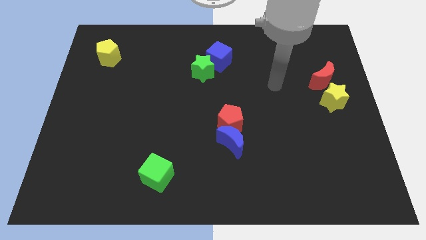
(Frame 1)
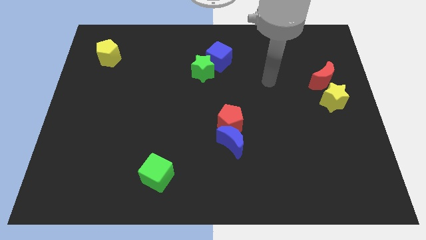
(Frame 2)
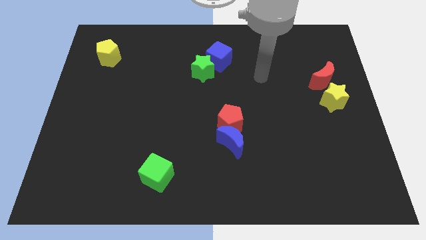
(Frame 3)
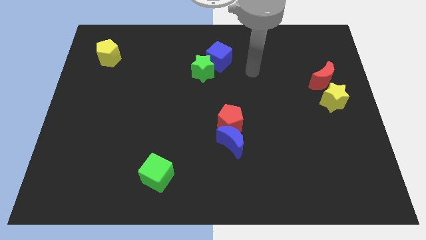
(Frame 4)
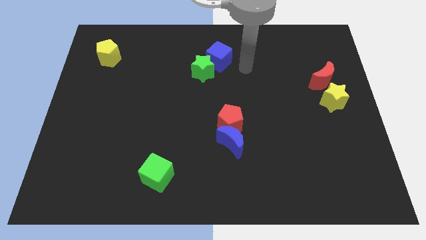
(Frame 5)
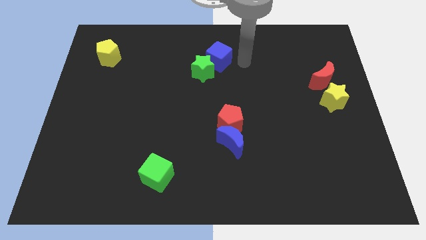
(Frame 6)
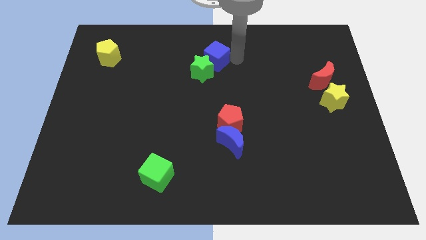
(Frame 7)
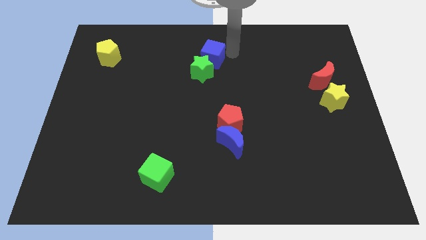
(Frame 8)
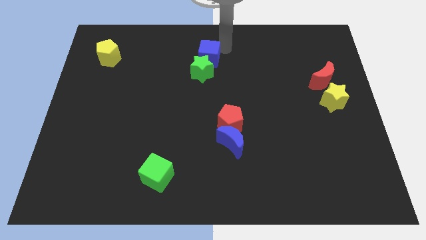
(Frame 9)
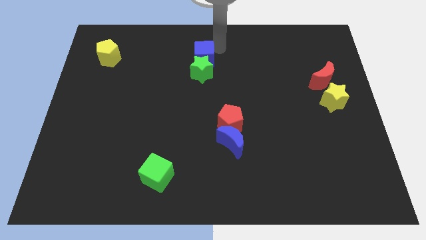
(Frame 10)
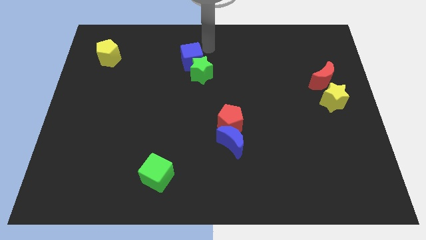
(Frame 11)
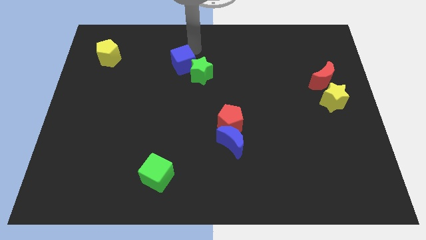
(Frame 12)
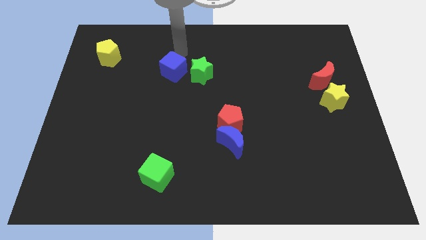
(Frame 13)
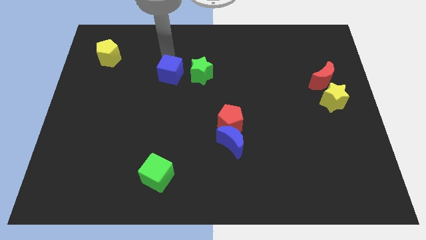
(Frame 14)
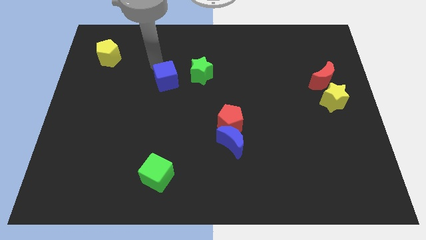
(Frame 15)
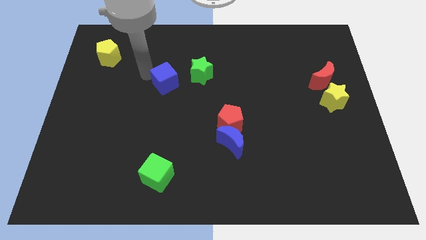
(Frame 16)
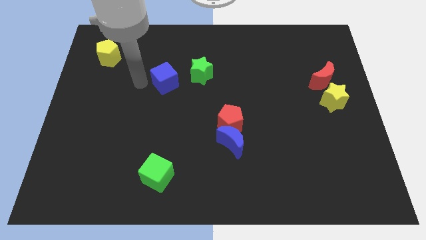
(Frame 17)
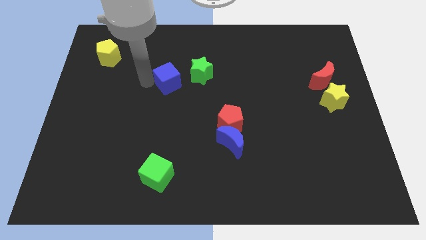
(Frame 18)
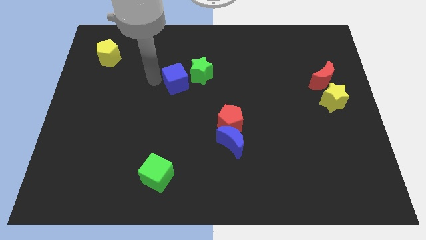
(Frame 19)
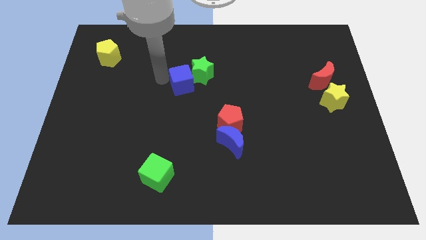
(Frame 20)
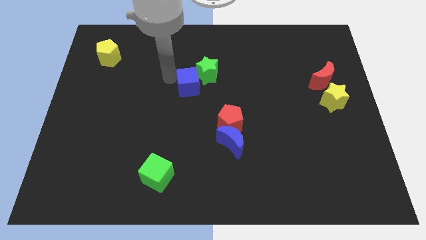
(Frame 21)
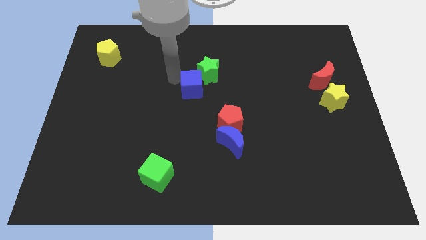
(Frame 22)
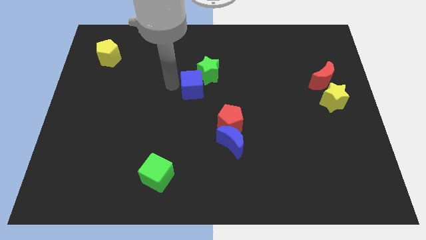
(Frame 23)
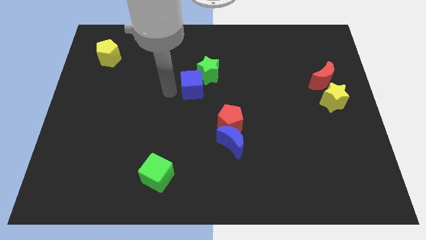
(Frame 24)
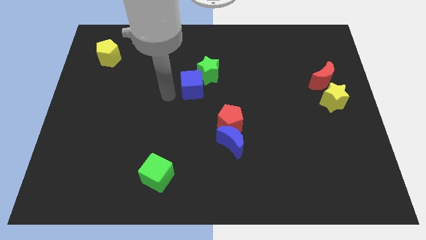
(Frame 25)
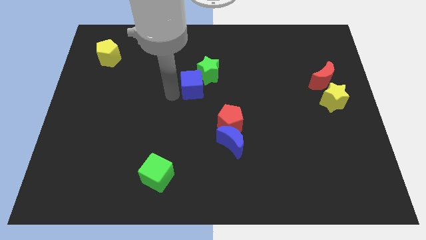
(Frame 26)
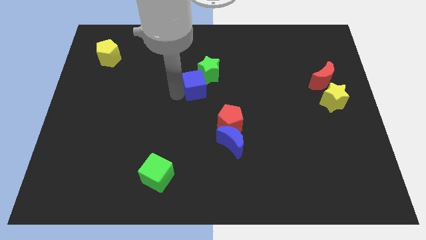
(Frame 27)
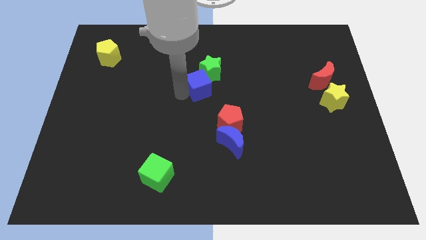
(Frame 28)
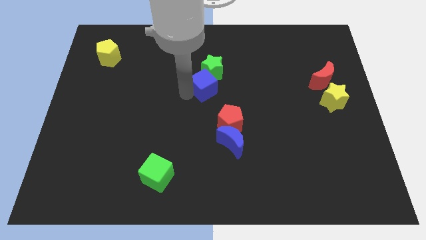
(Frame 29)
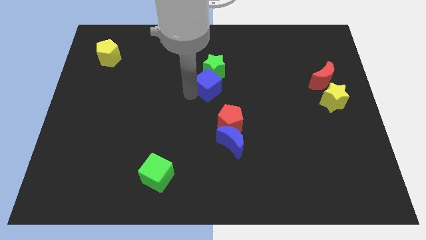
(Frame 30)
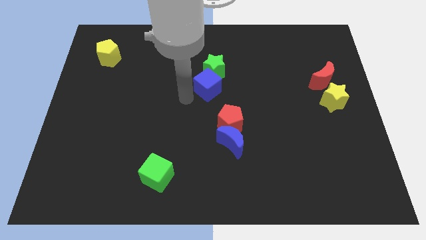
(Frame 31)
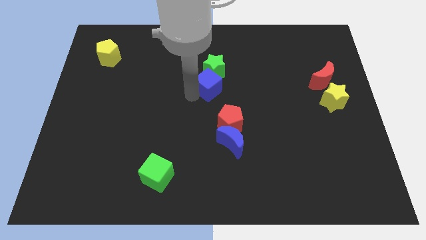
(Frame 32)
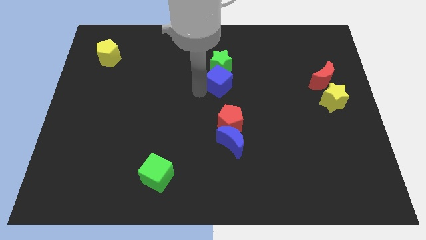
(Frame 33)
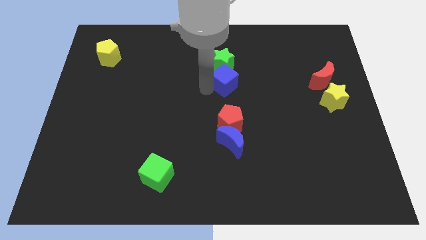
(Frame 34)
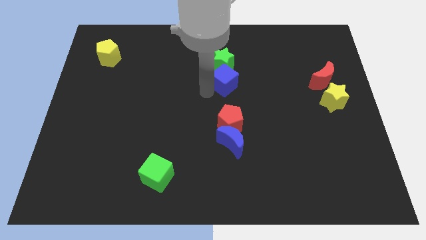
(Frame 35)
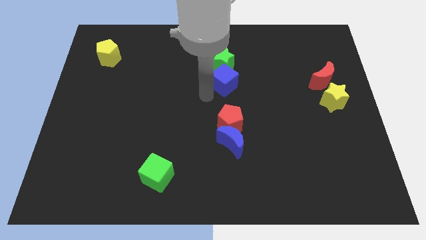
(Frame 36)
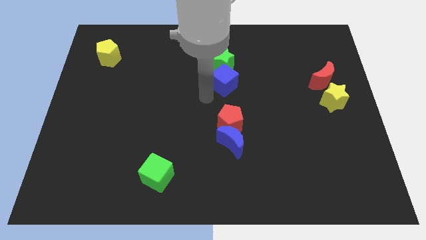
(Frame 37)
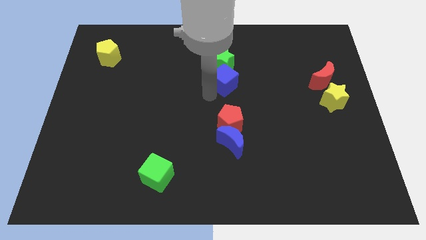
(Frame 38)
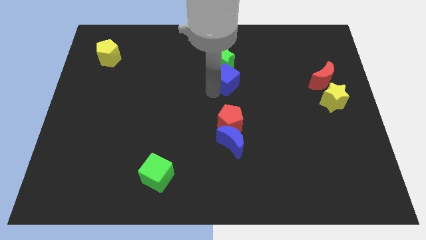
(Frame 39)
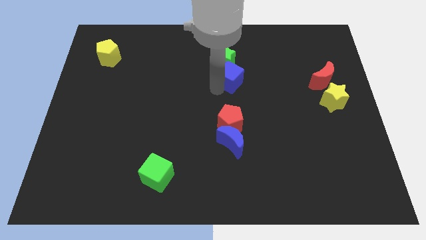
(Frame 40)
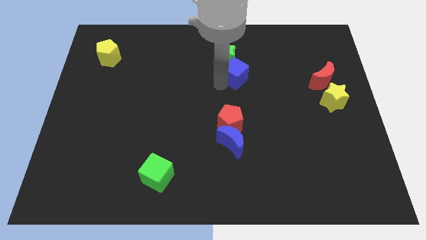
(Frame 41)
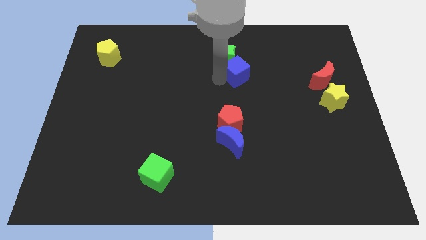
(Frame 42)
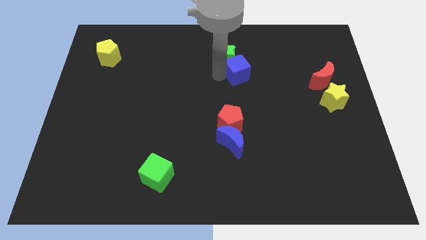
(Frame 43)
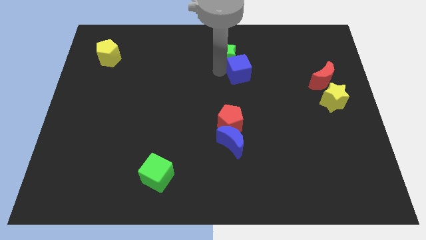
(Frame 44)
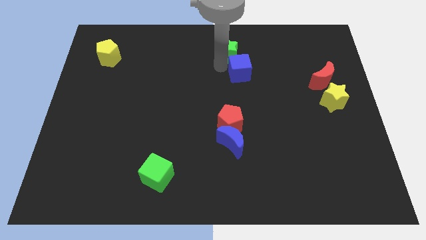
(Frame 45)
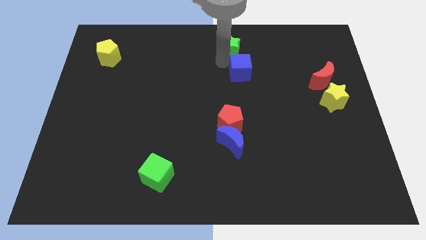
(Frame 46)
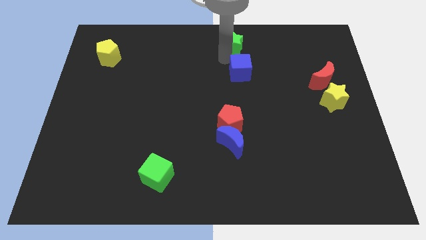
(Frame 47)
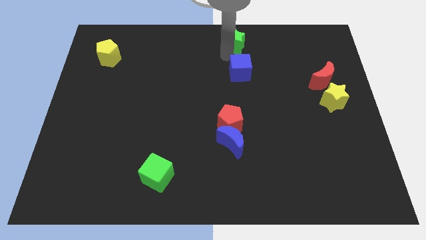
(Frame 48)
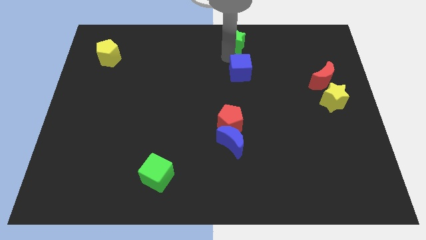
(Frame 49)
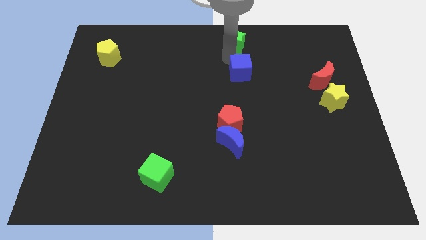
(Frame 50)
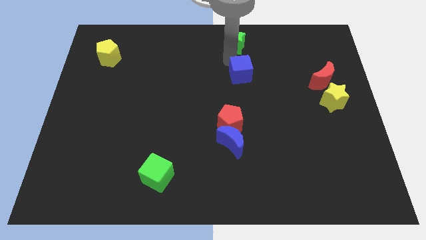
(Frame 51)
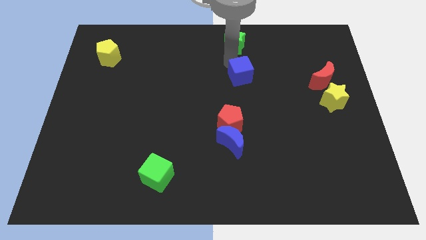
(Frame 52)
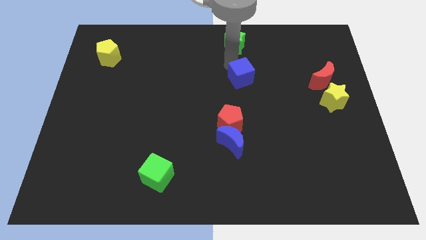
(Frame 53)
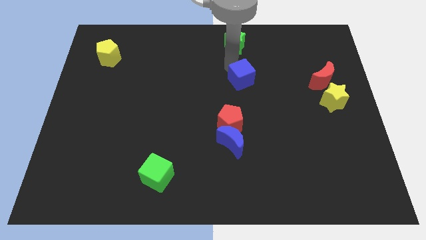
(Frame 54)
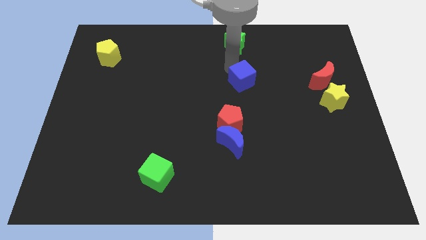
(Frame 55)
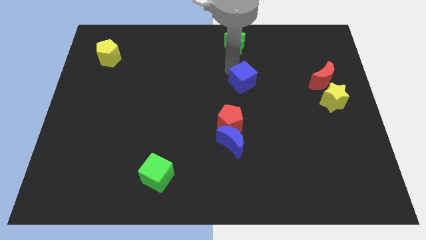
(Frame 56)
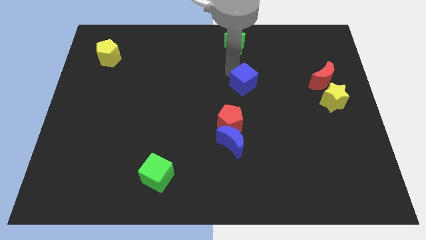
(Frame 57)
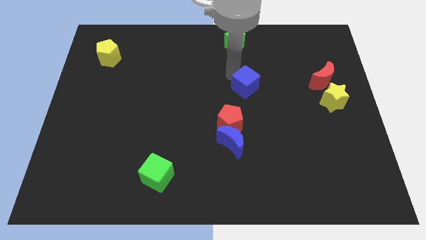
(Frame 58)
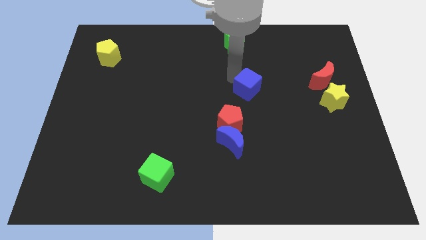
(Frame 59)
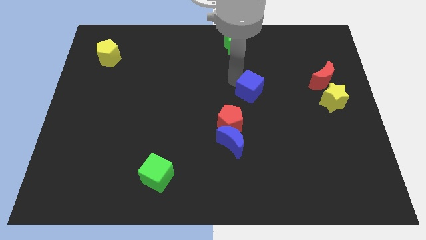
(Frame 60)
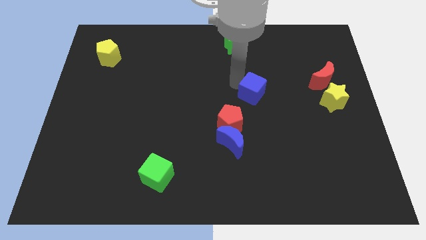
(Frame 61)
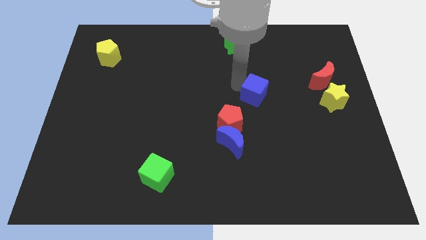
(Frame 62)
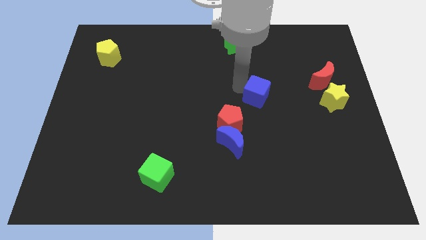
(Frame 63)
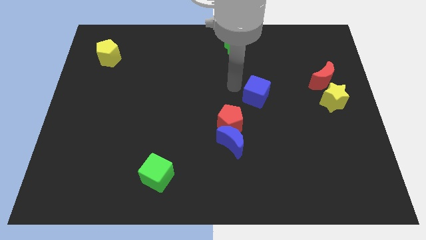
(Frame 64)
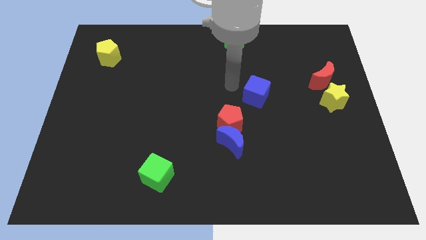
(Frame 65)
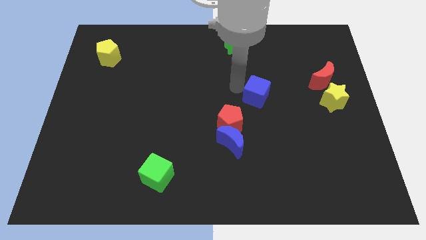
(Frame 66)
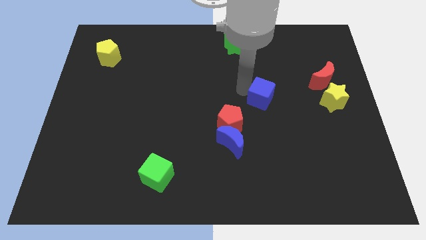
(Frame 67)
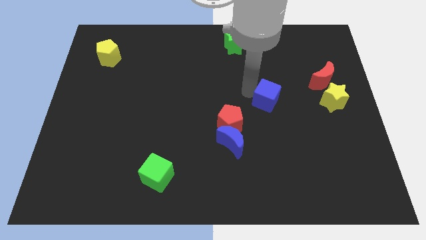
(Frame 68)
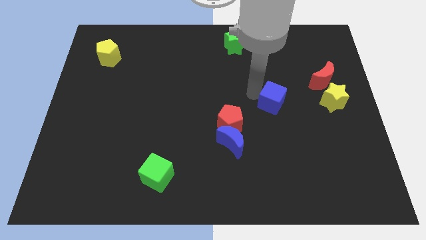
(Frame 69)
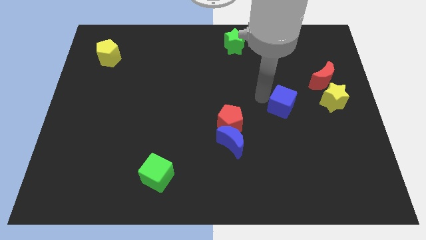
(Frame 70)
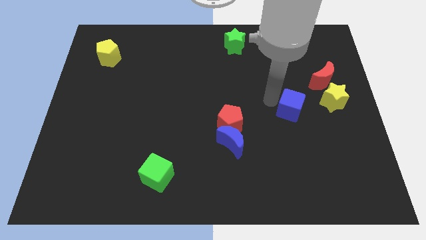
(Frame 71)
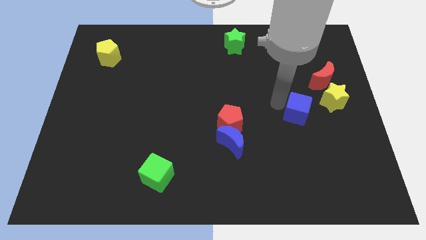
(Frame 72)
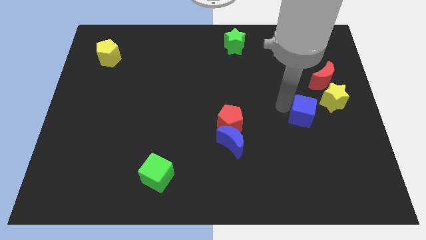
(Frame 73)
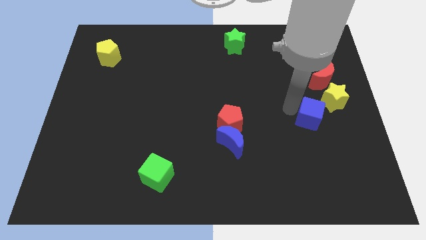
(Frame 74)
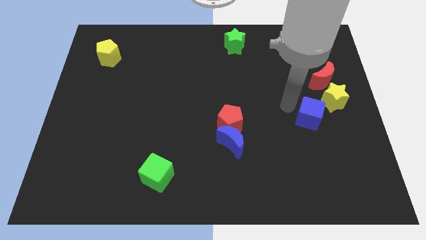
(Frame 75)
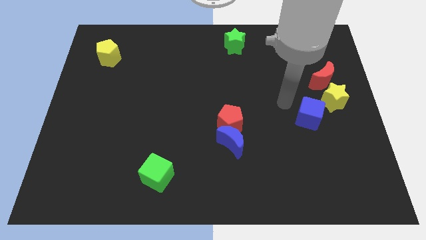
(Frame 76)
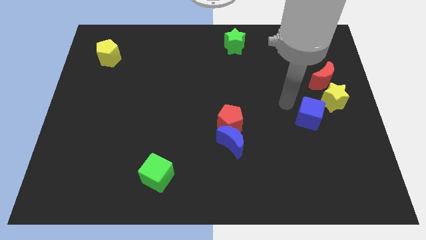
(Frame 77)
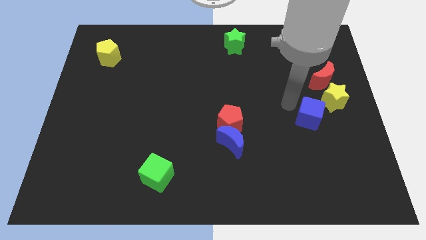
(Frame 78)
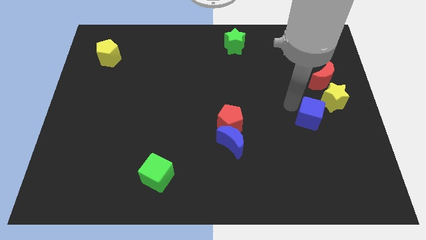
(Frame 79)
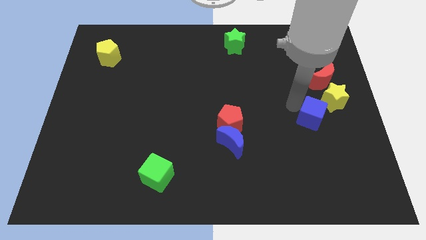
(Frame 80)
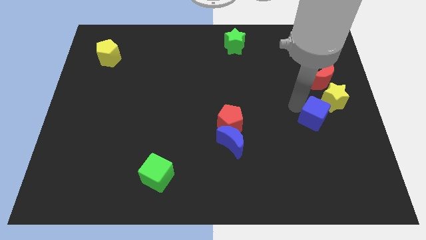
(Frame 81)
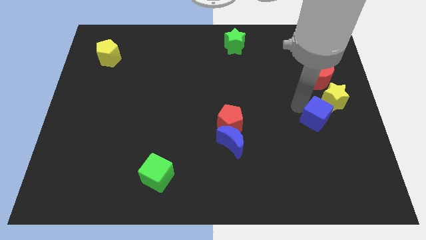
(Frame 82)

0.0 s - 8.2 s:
slide the blue cube below the yellow star
